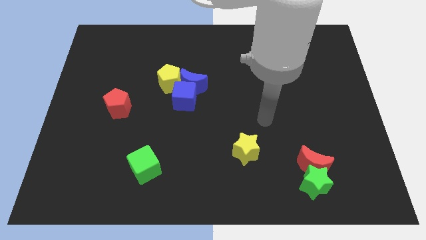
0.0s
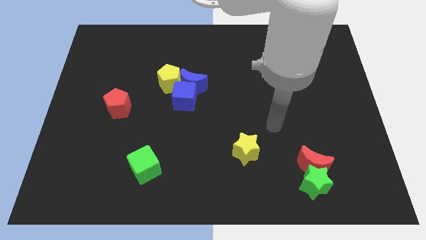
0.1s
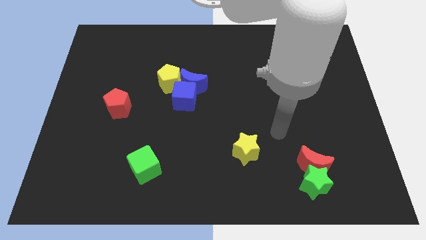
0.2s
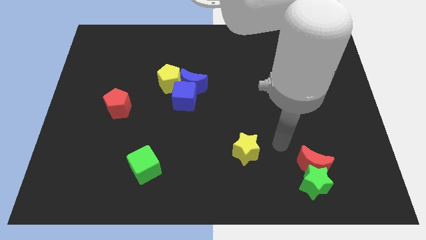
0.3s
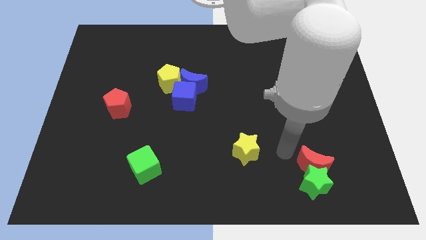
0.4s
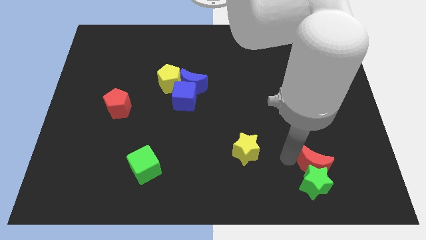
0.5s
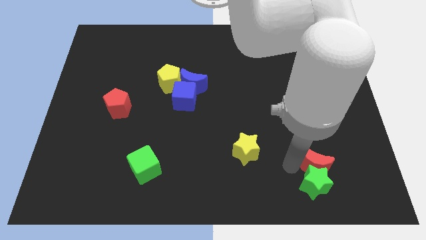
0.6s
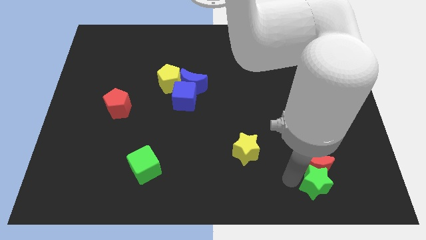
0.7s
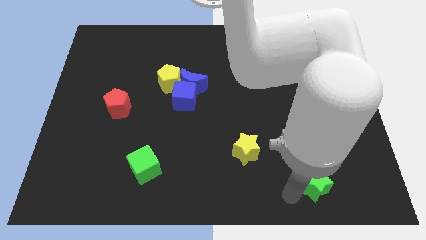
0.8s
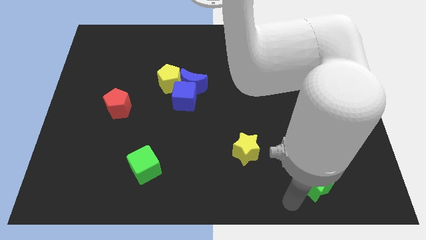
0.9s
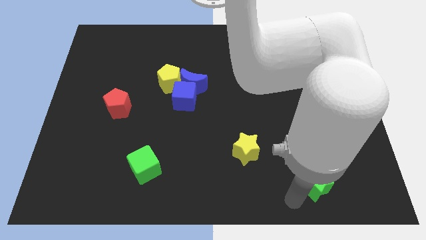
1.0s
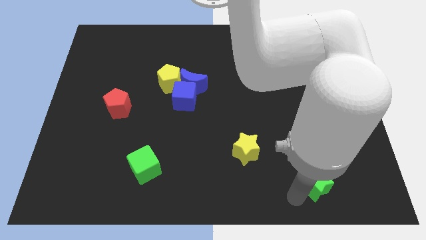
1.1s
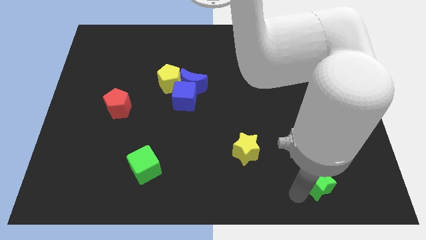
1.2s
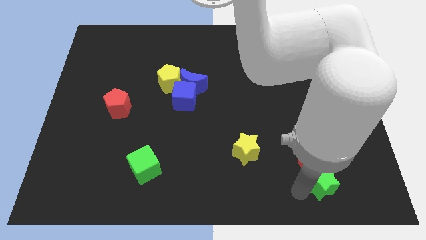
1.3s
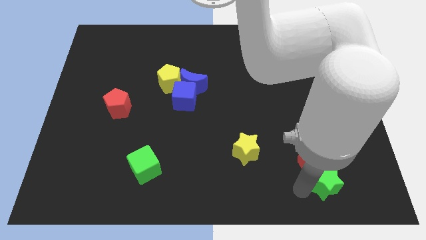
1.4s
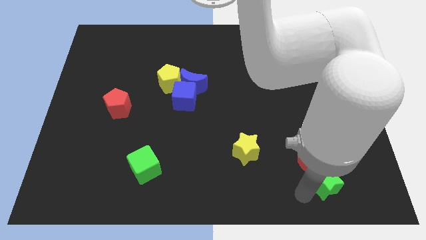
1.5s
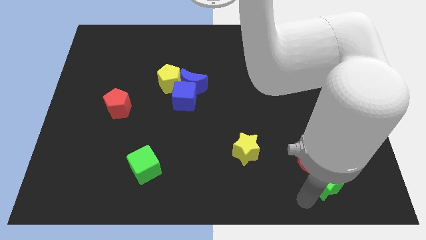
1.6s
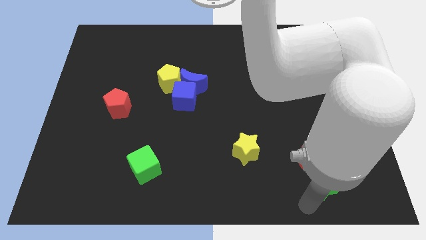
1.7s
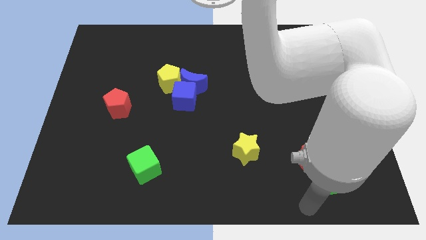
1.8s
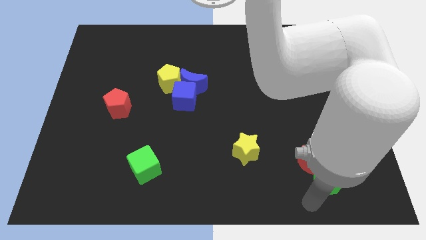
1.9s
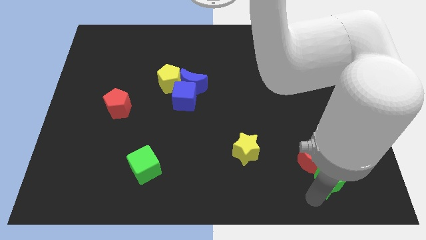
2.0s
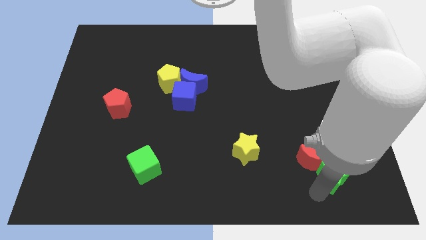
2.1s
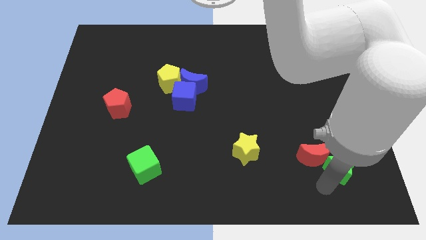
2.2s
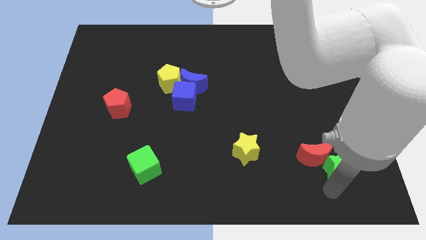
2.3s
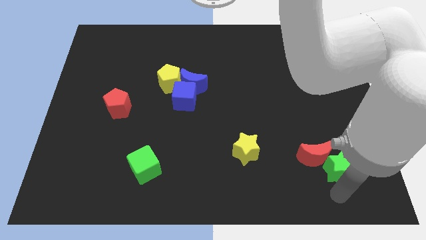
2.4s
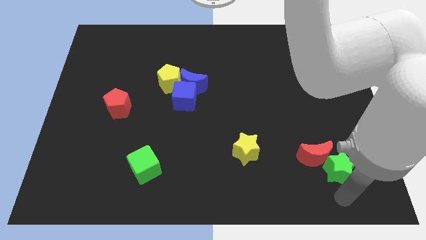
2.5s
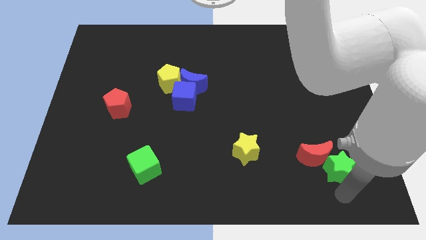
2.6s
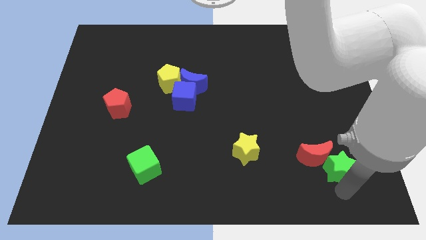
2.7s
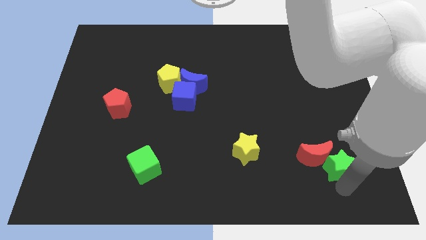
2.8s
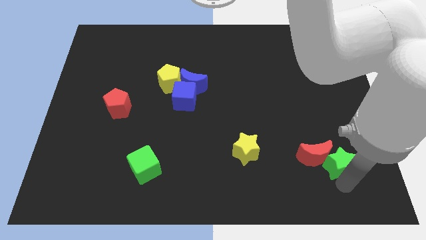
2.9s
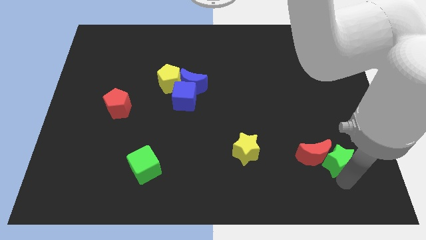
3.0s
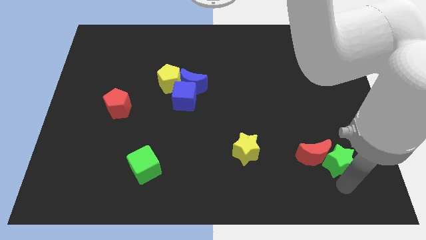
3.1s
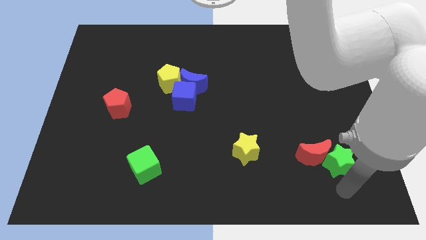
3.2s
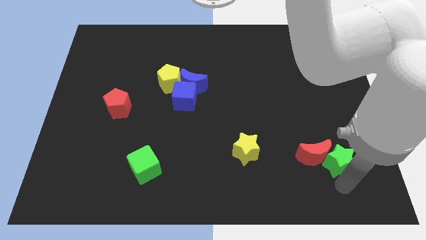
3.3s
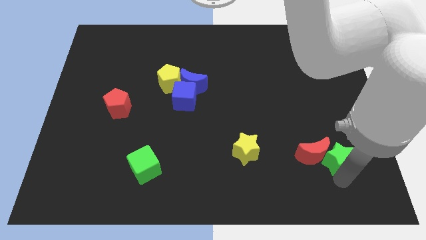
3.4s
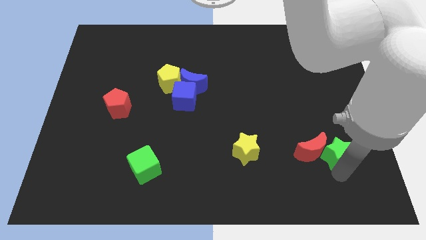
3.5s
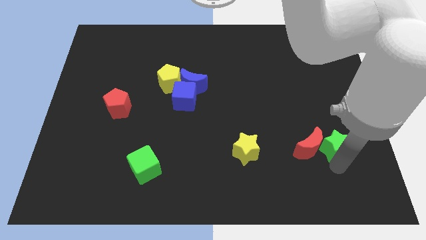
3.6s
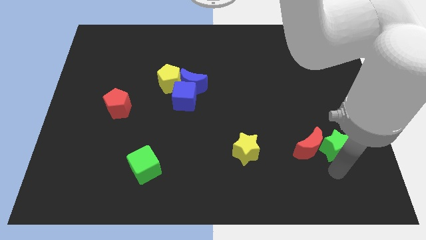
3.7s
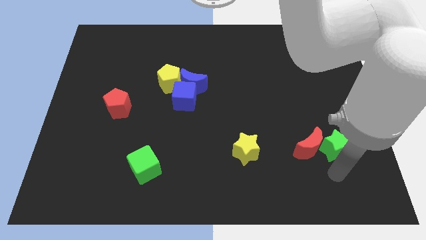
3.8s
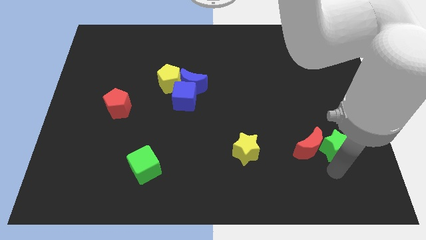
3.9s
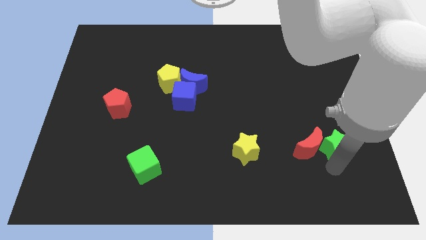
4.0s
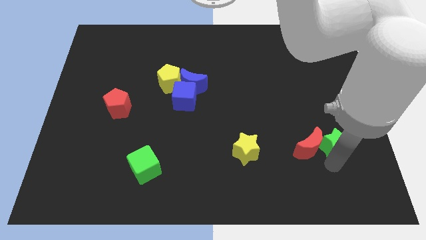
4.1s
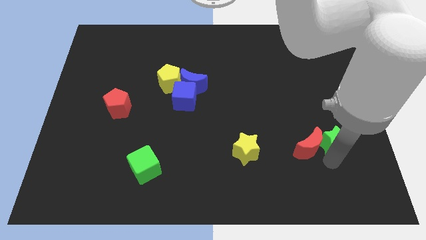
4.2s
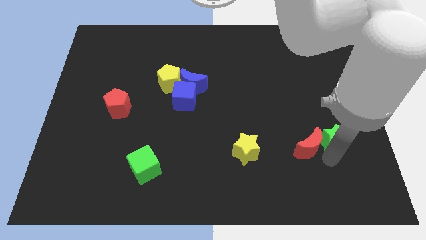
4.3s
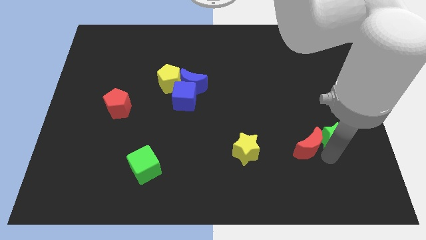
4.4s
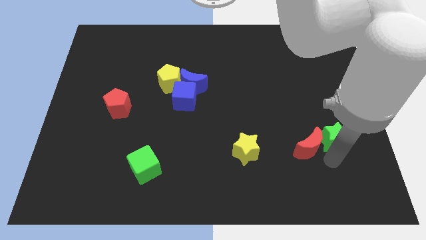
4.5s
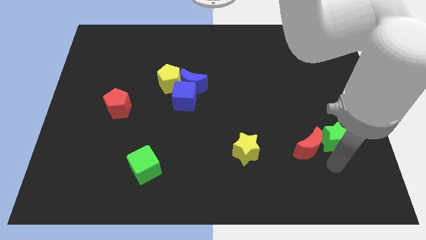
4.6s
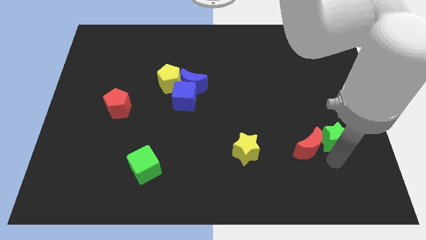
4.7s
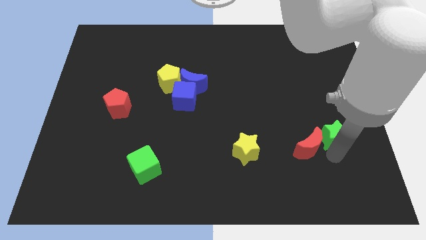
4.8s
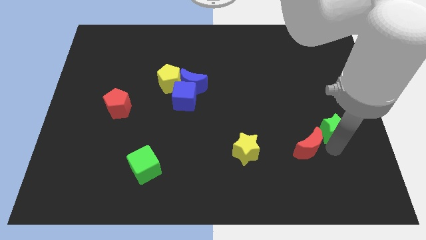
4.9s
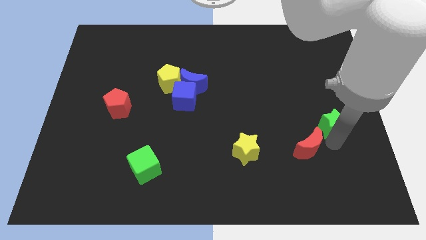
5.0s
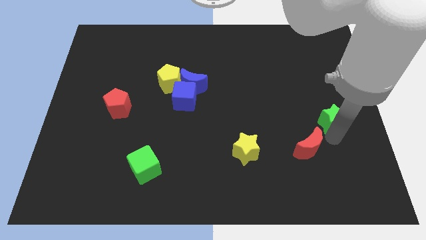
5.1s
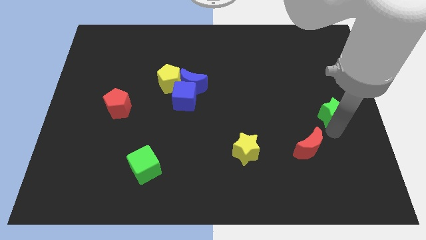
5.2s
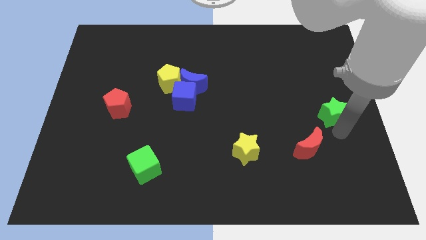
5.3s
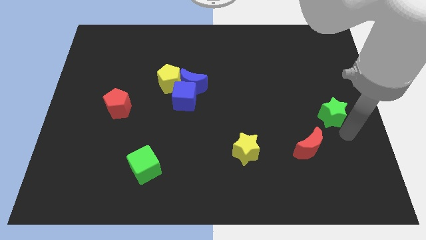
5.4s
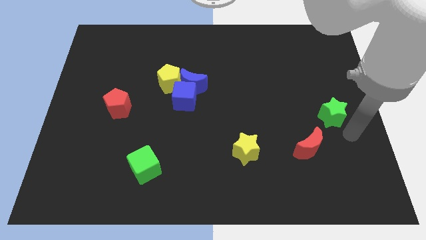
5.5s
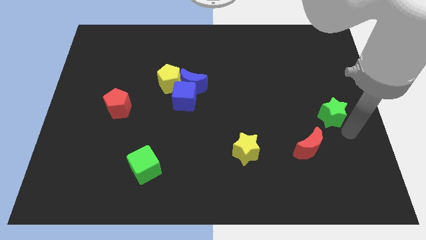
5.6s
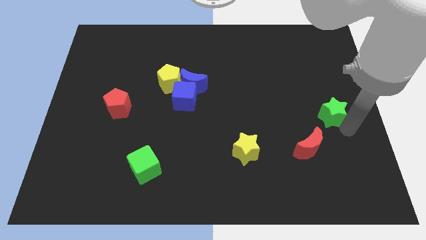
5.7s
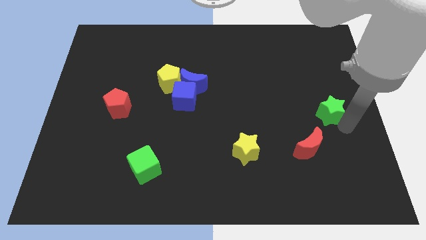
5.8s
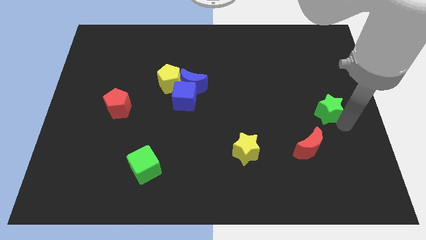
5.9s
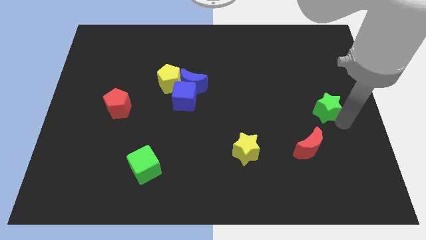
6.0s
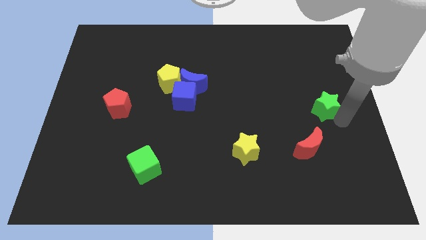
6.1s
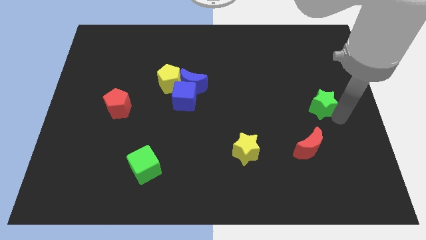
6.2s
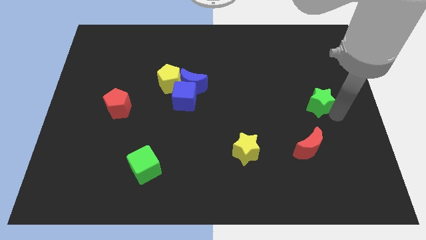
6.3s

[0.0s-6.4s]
move the green star up

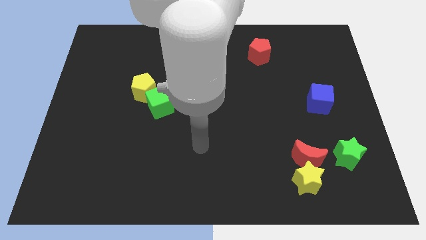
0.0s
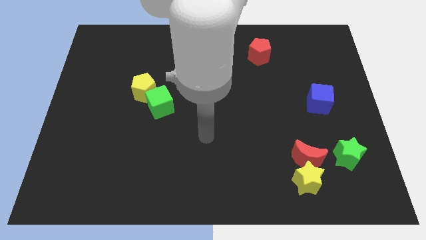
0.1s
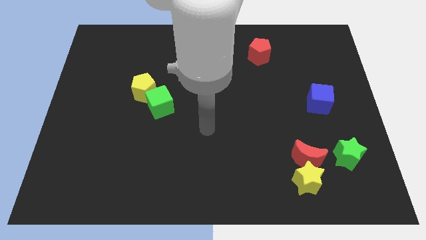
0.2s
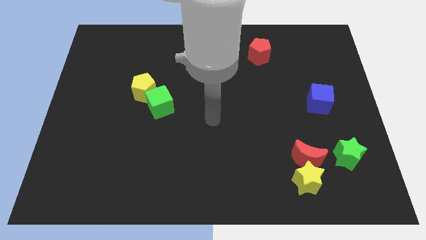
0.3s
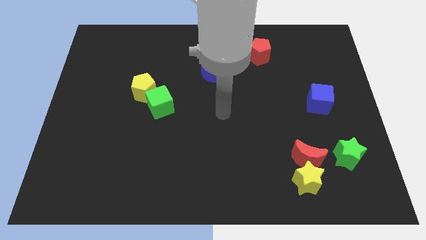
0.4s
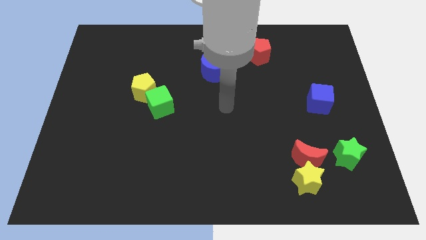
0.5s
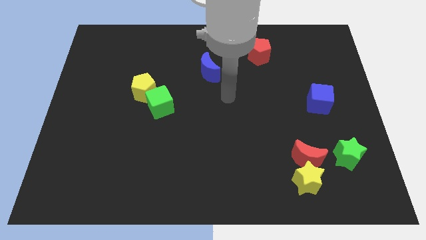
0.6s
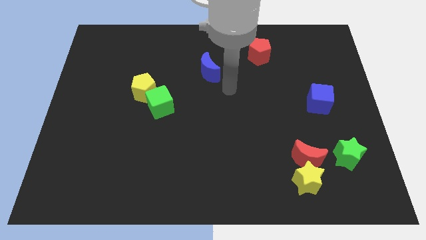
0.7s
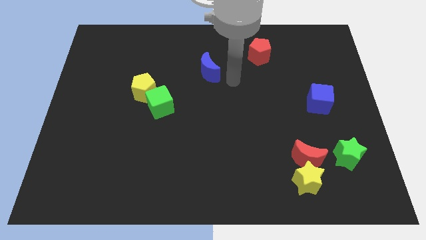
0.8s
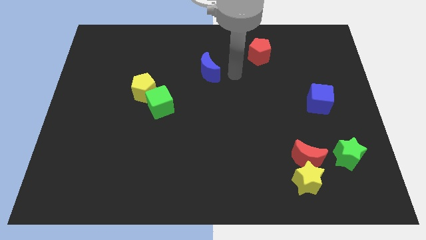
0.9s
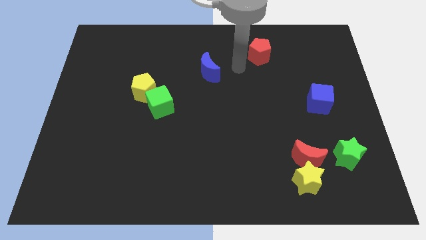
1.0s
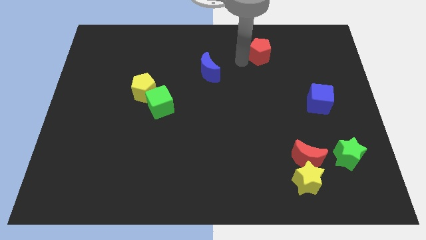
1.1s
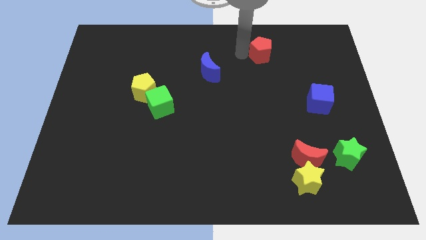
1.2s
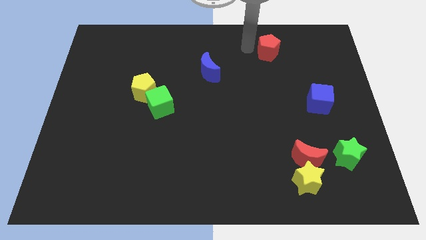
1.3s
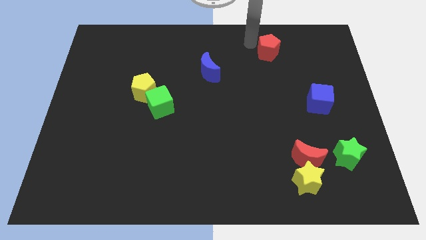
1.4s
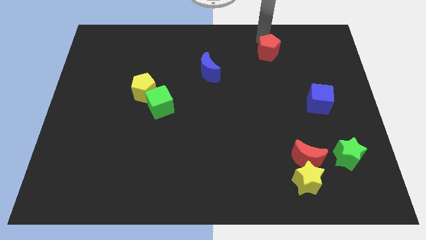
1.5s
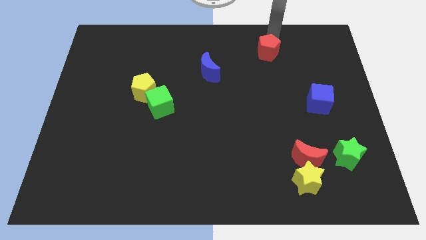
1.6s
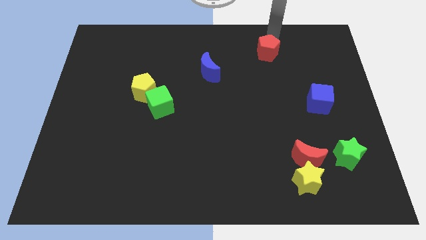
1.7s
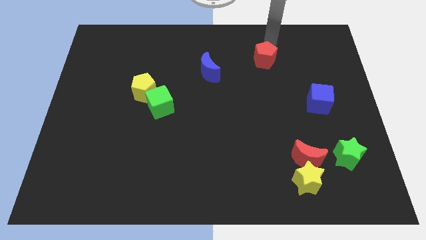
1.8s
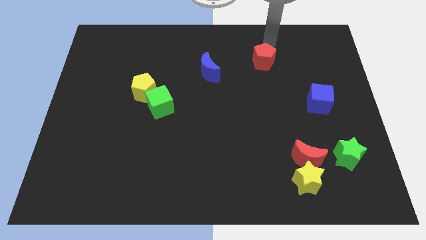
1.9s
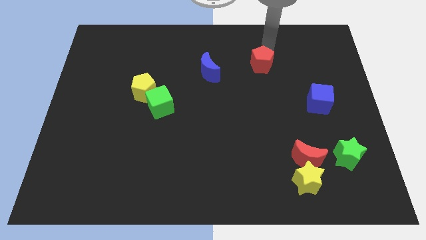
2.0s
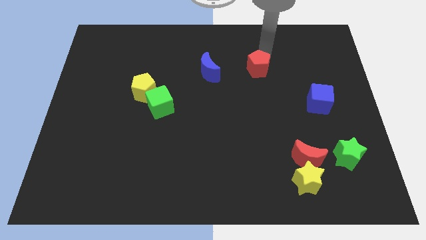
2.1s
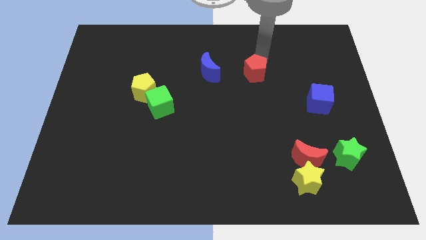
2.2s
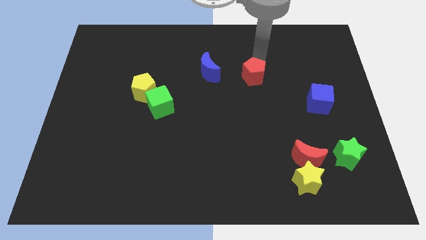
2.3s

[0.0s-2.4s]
slightly slide the red pentagon down
